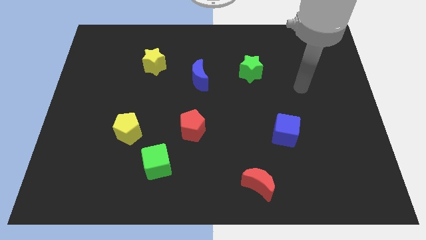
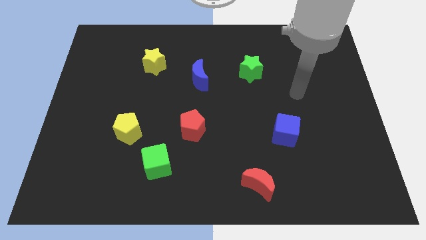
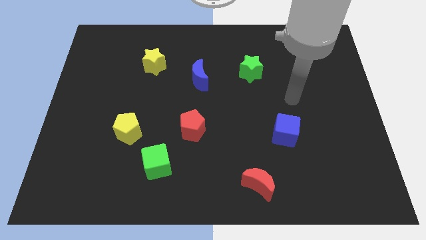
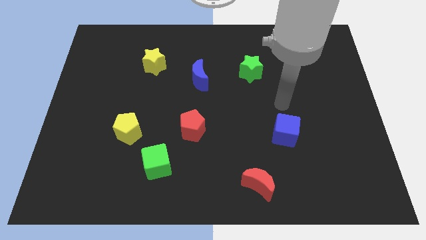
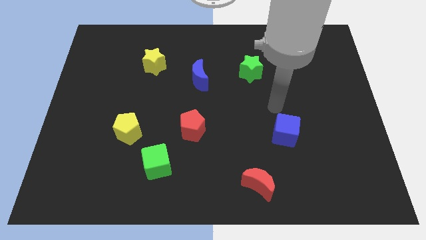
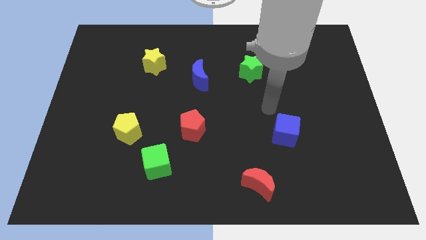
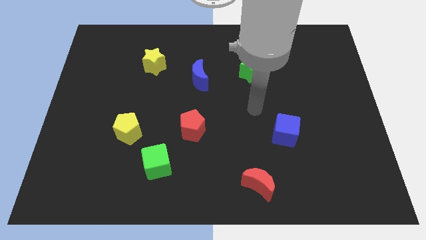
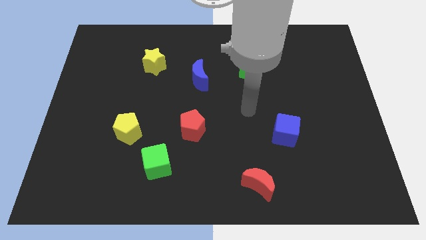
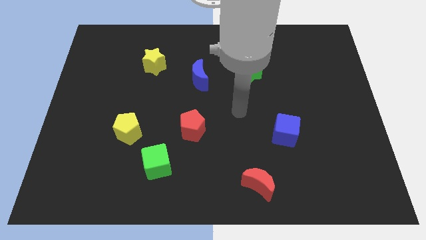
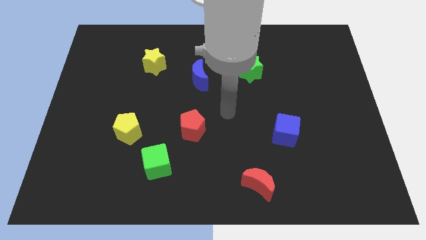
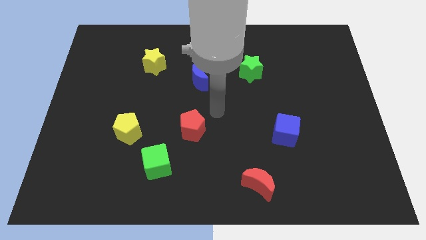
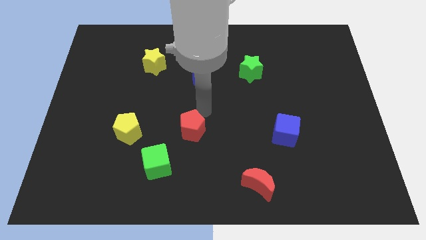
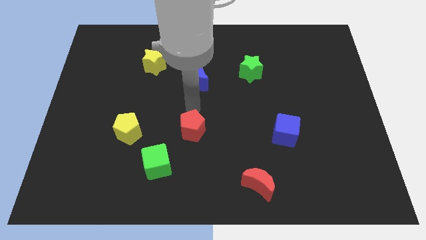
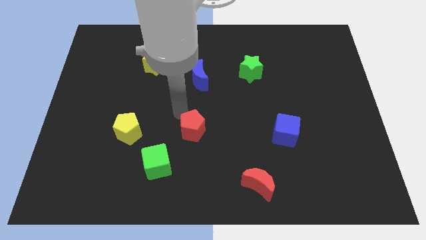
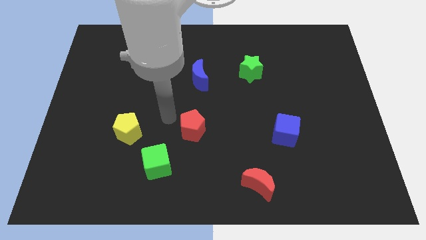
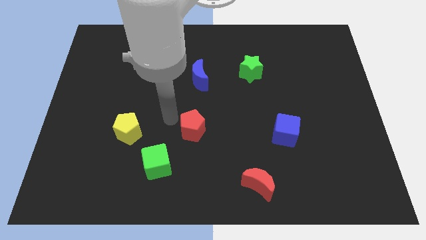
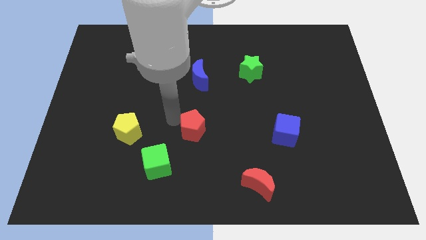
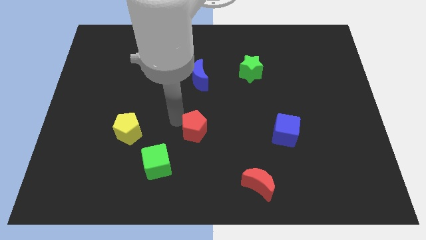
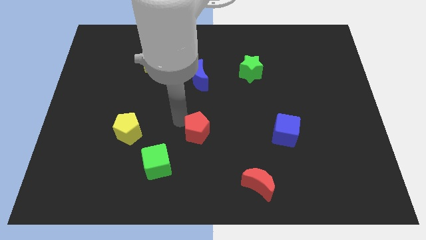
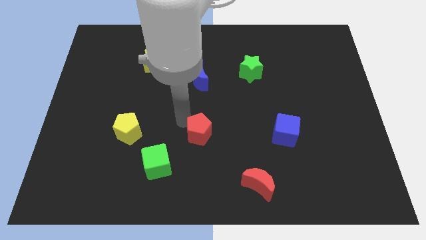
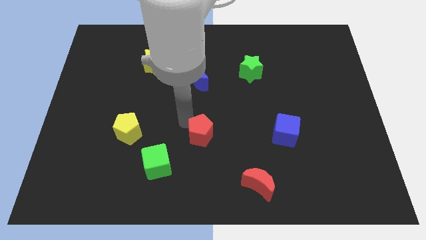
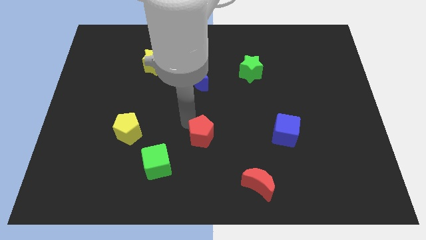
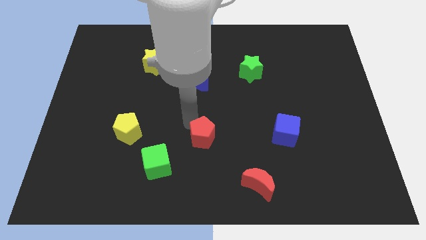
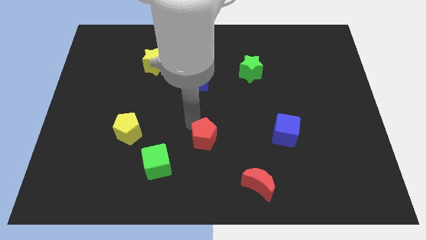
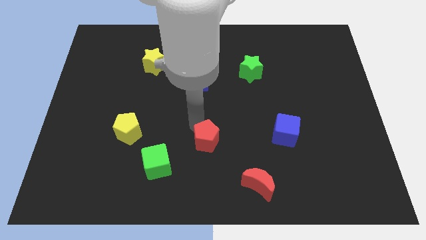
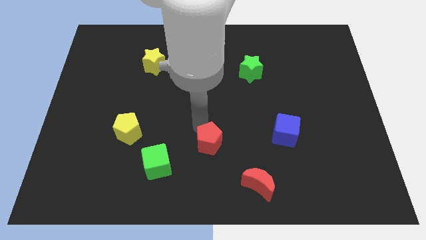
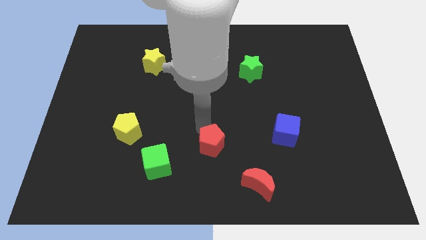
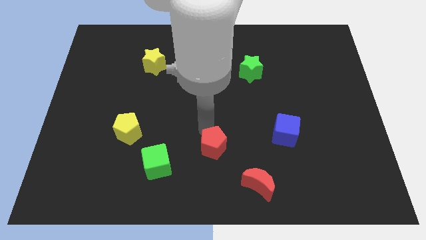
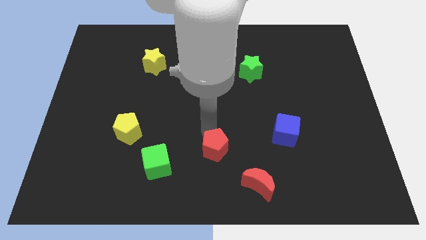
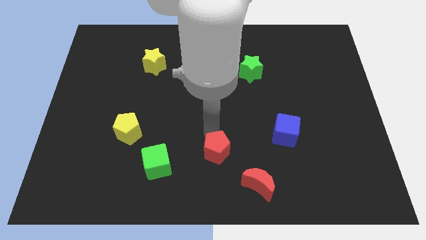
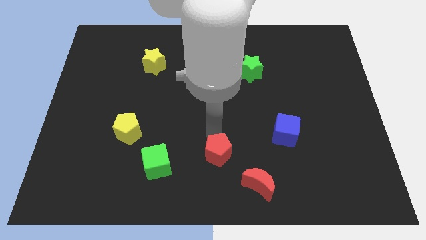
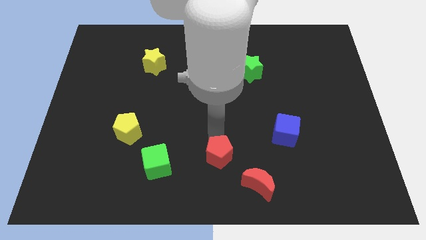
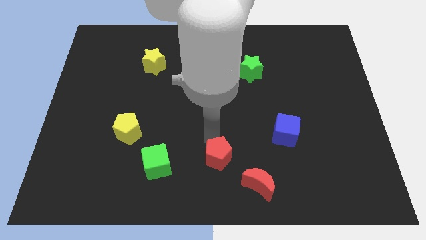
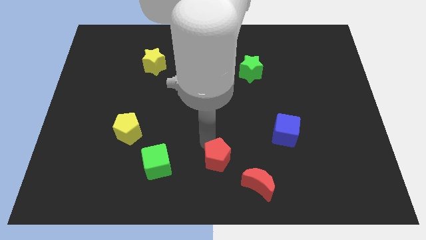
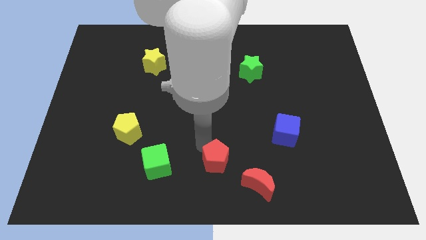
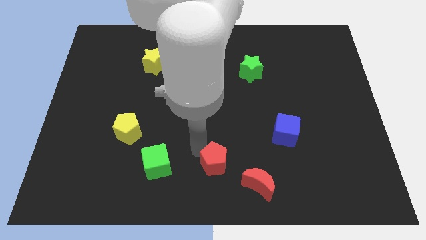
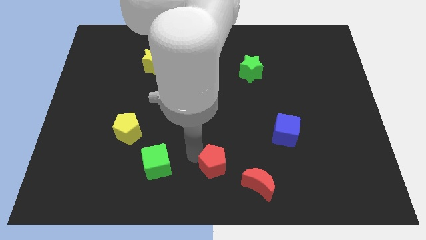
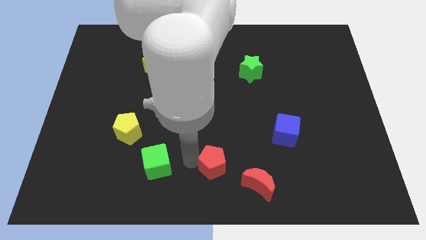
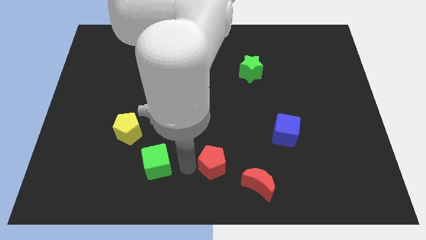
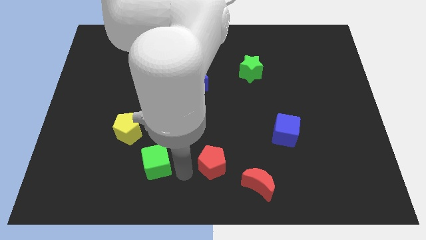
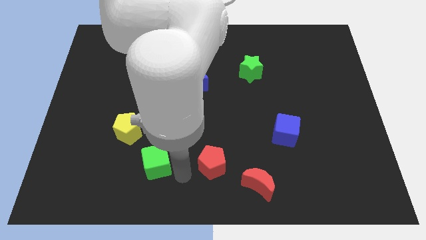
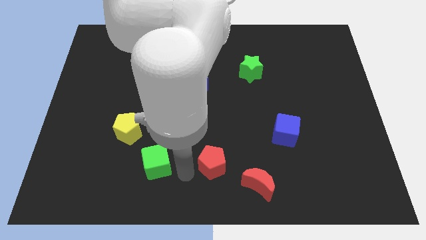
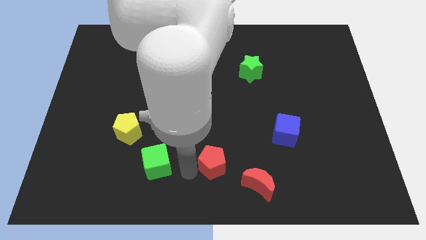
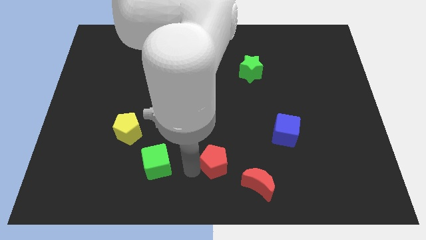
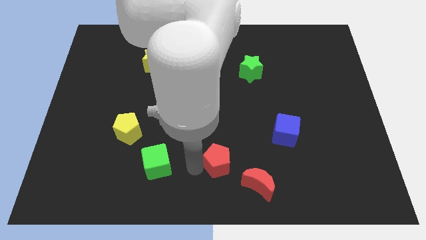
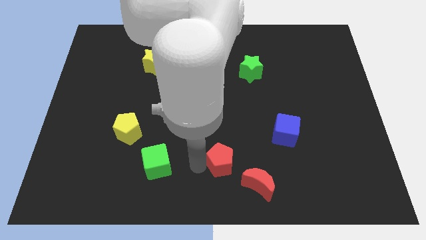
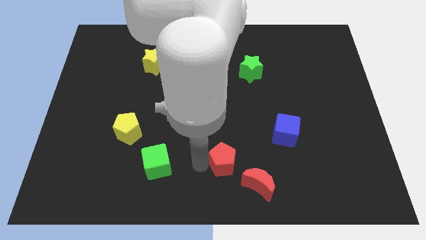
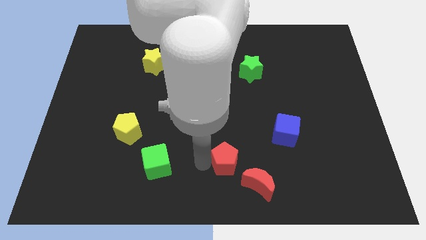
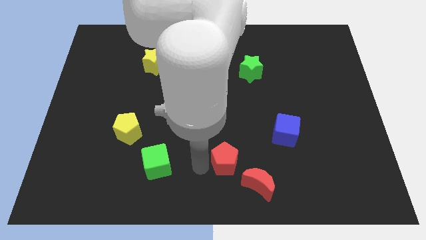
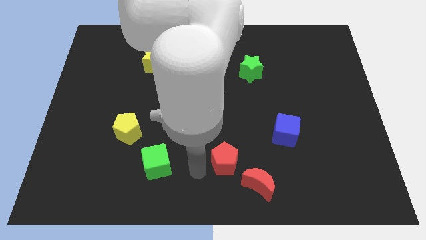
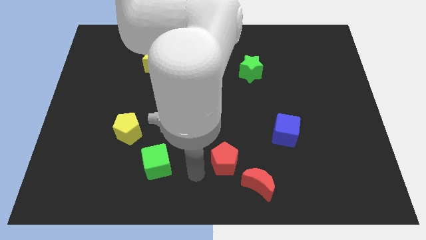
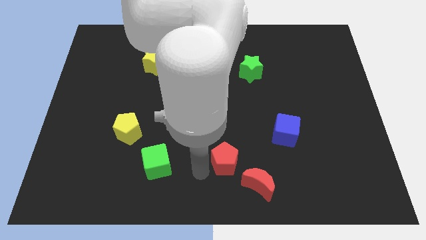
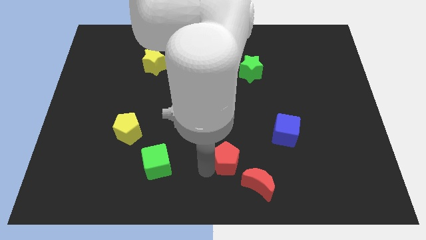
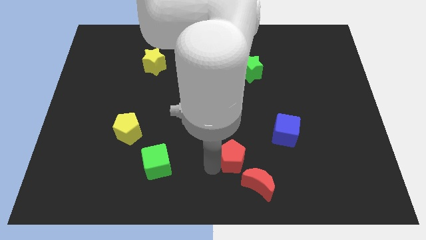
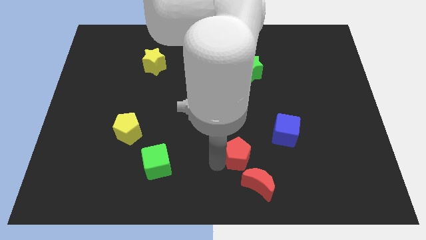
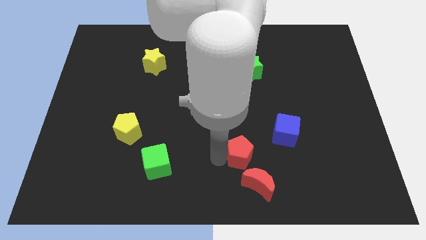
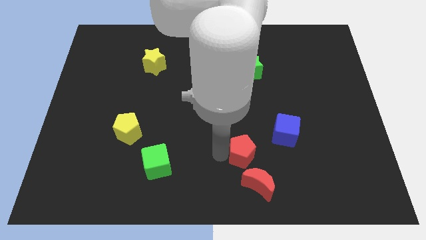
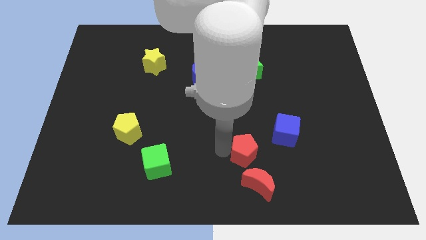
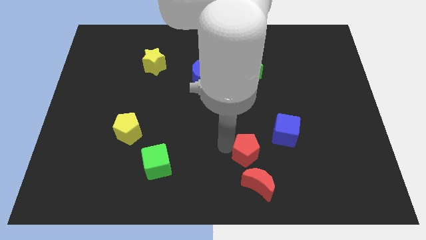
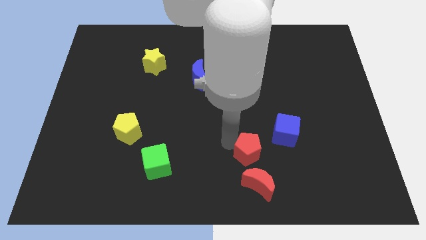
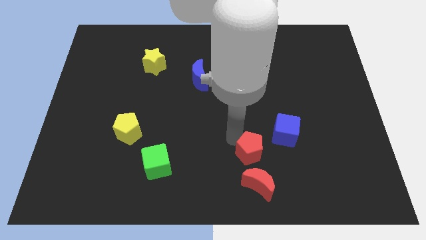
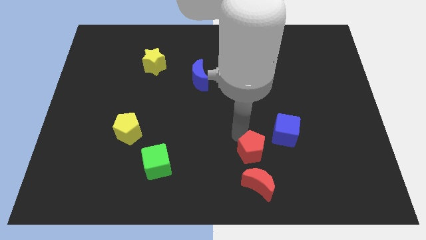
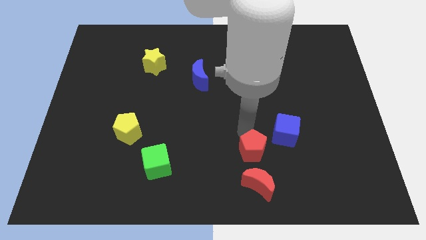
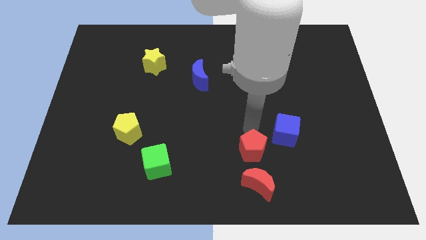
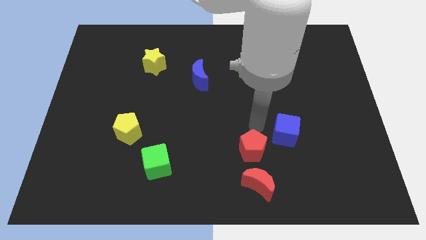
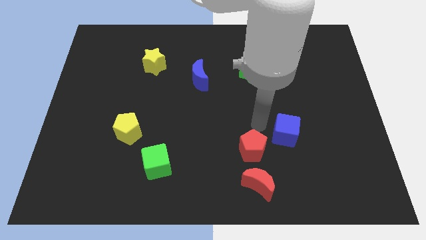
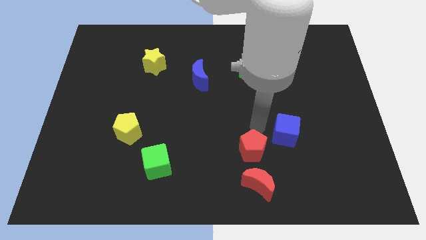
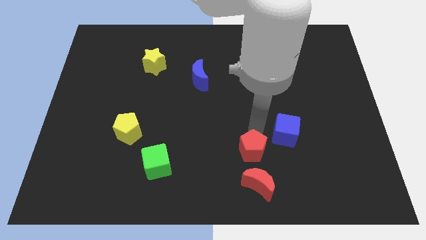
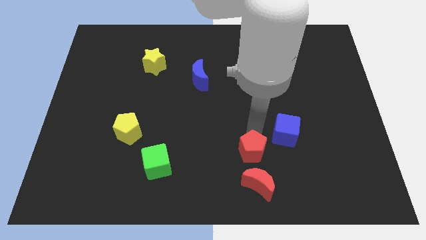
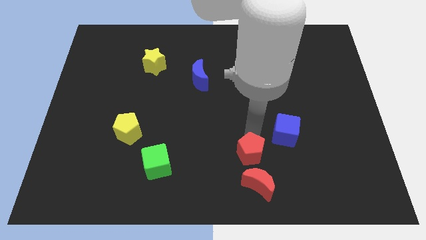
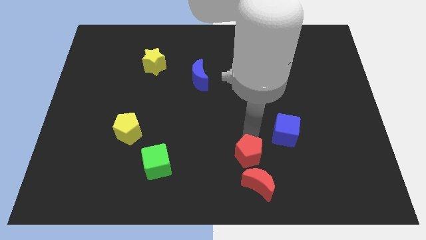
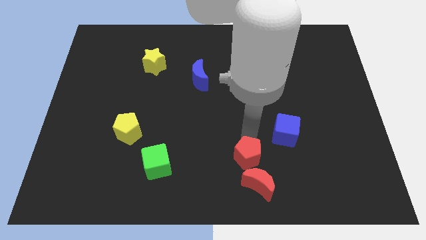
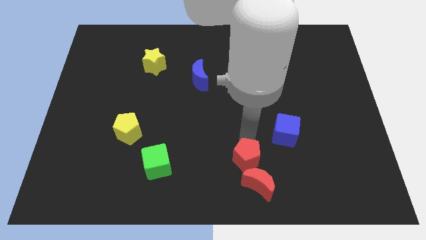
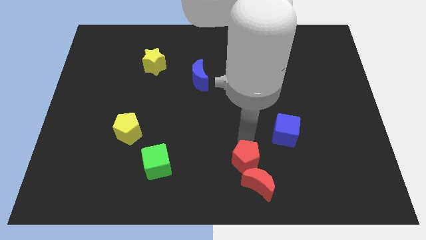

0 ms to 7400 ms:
push the red pentagon towards the red moon
